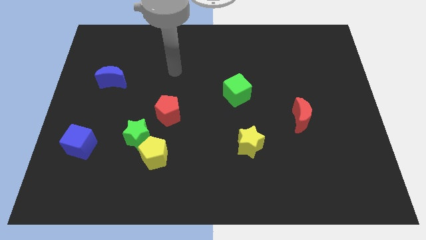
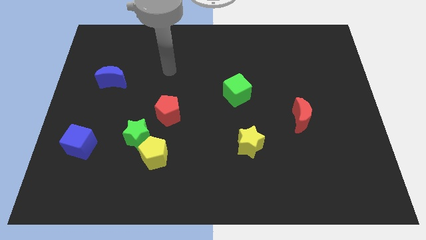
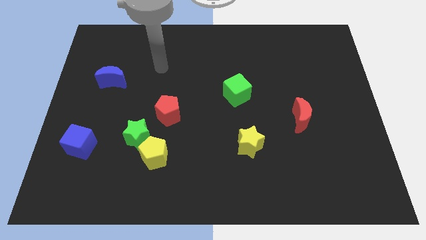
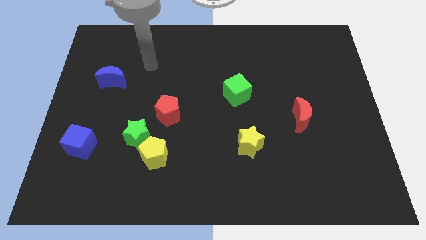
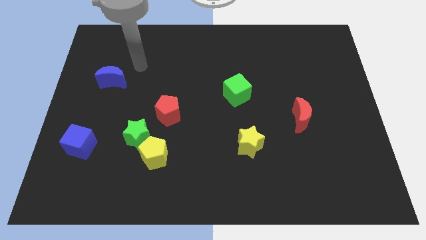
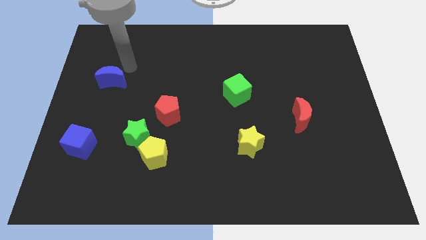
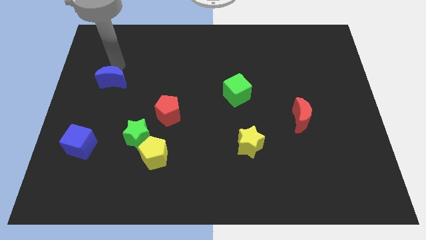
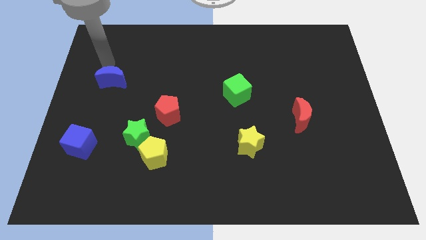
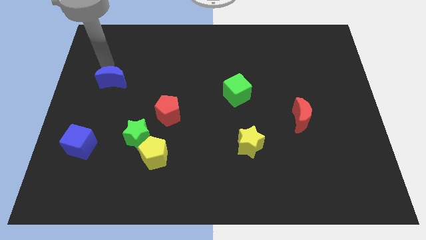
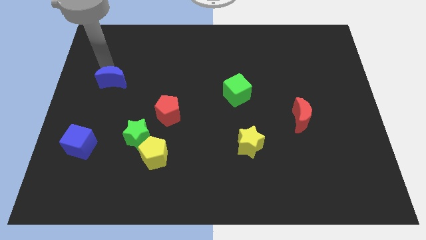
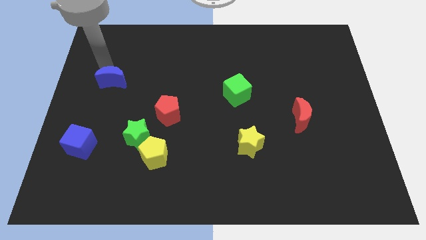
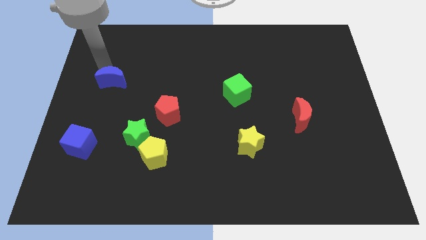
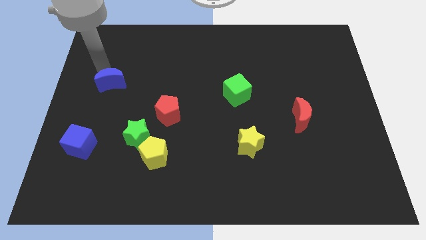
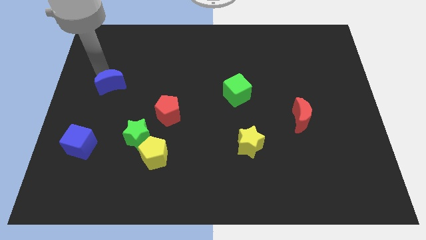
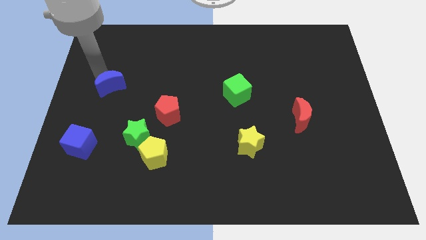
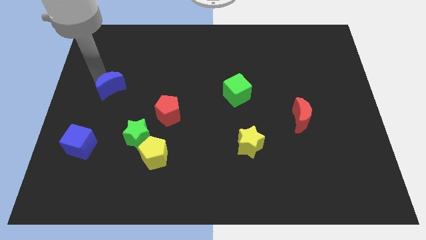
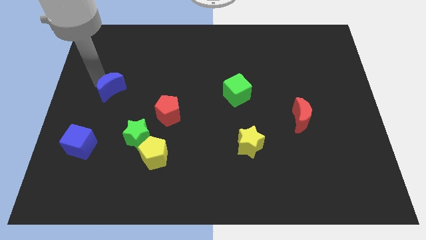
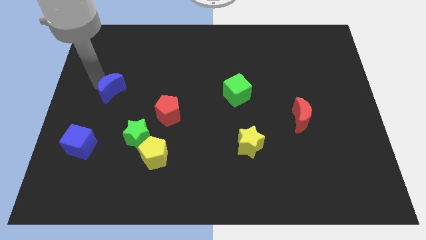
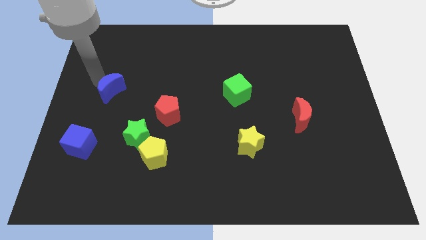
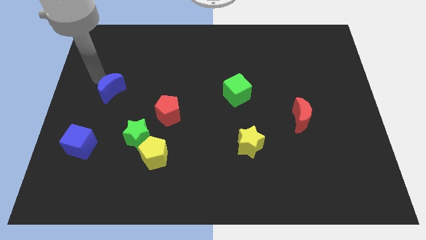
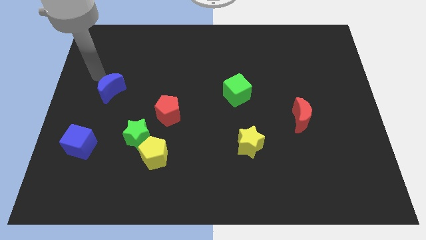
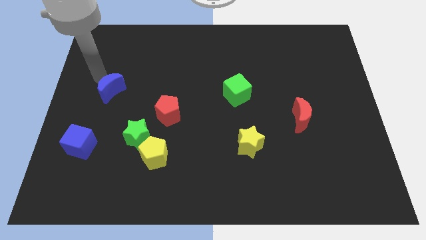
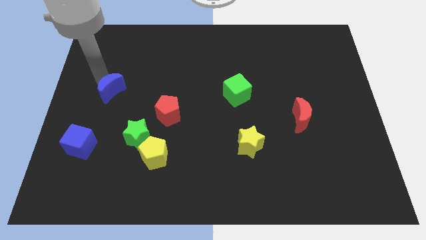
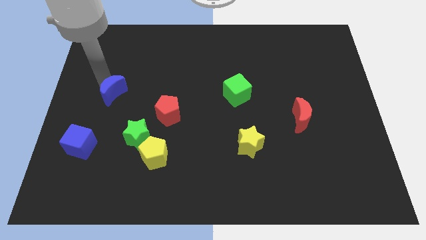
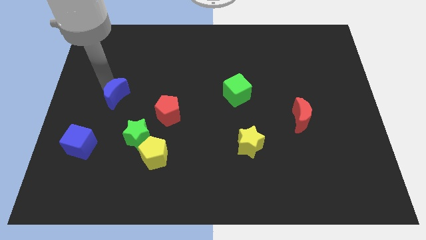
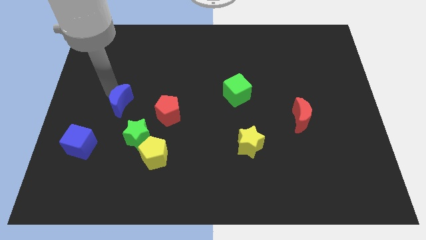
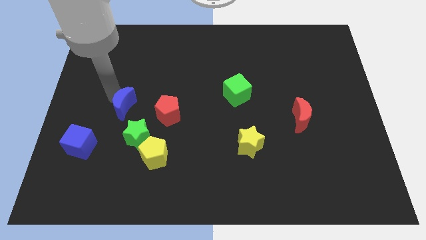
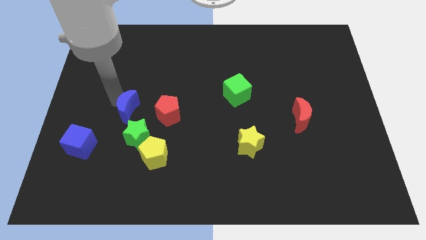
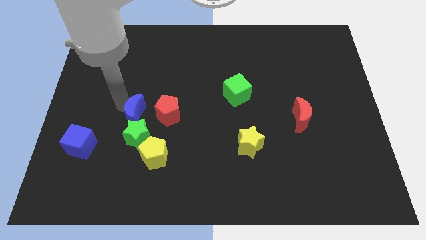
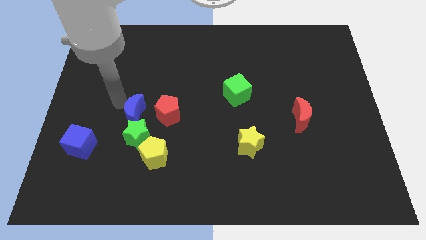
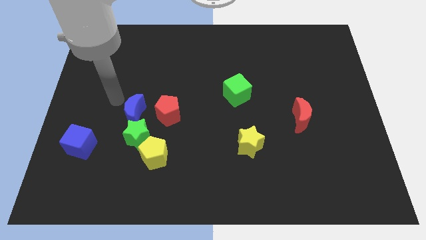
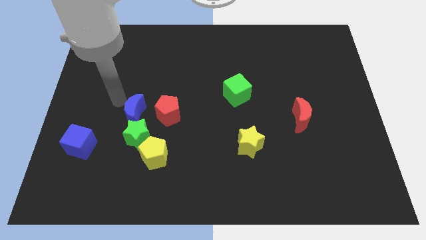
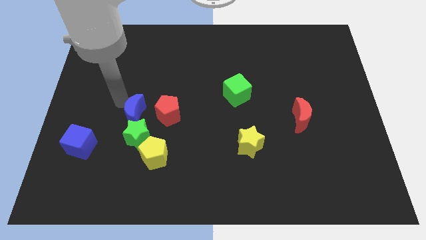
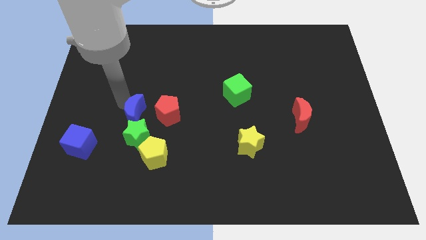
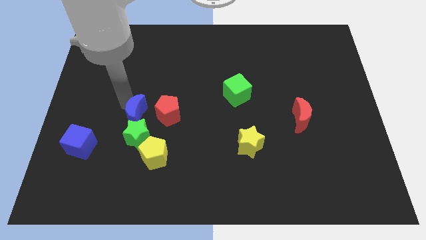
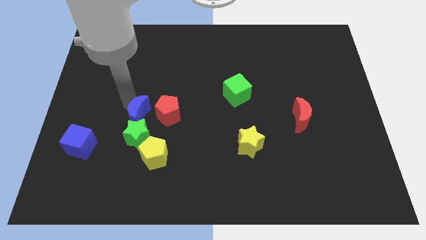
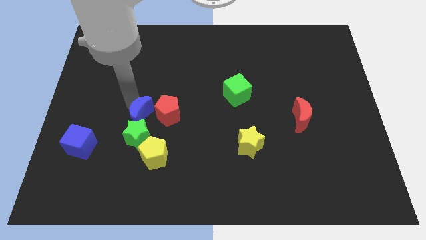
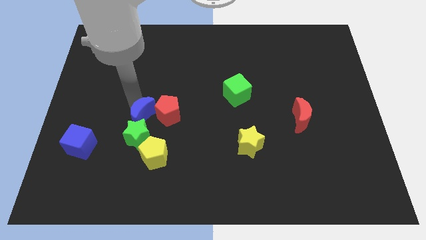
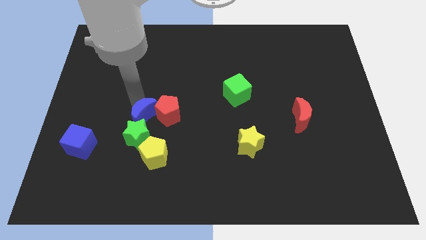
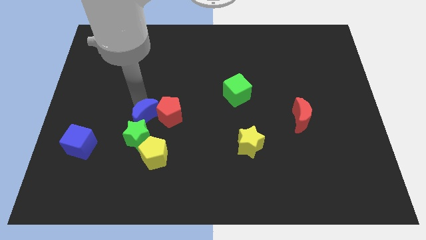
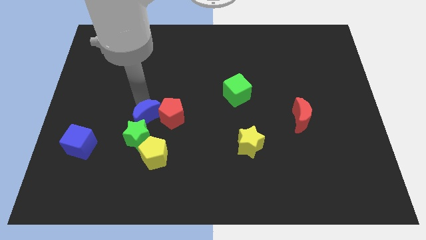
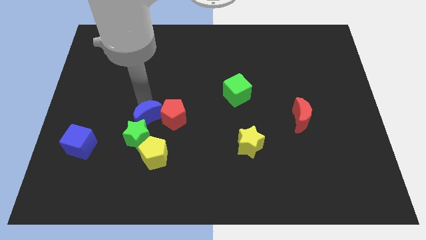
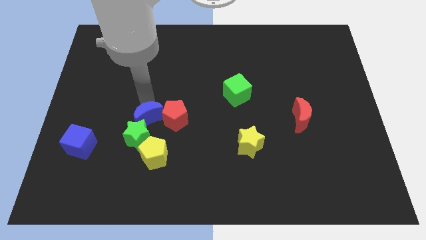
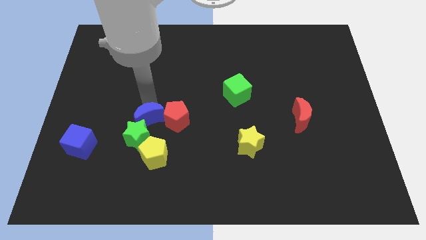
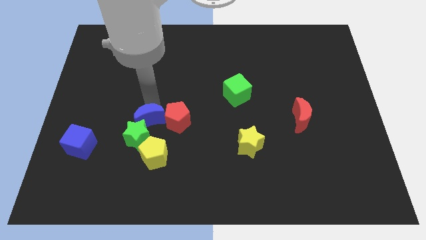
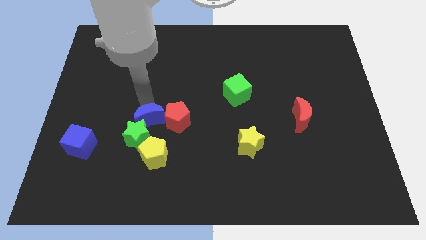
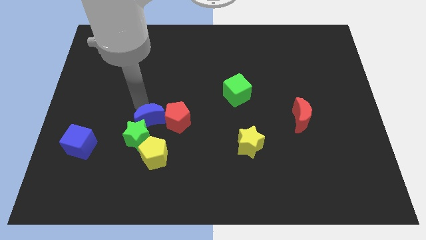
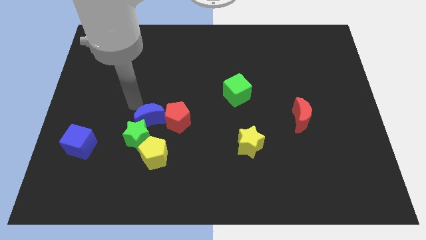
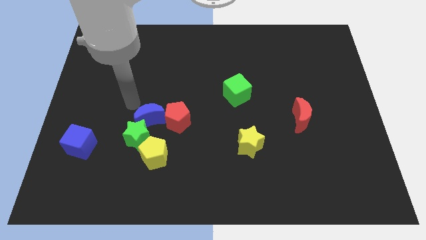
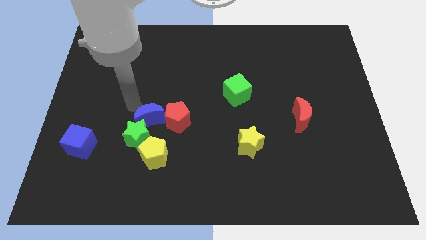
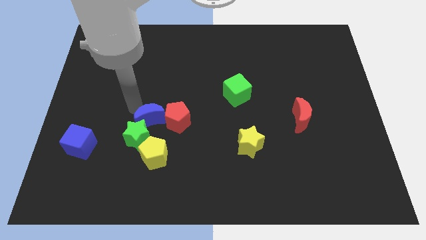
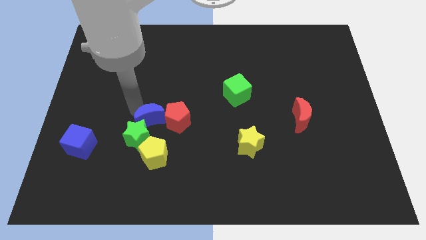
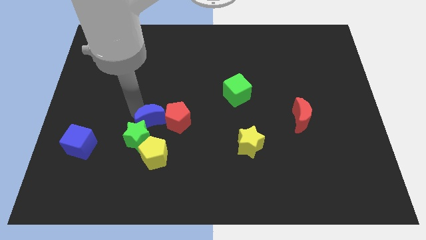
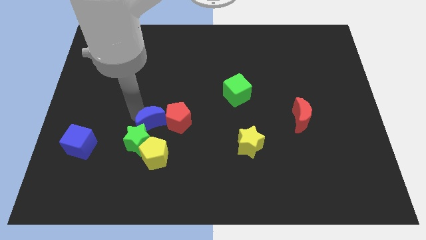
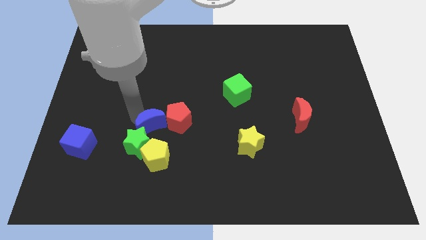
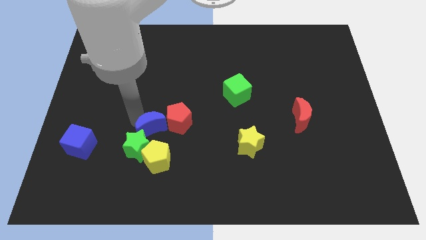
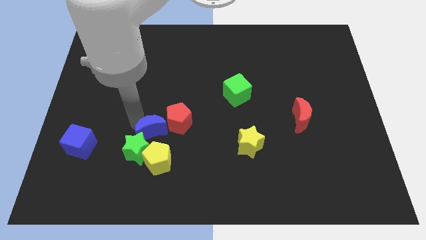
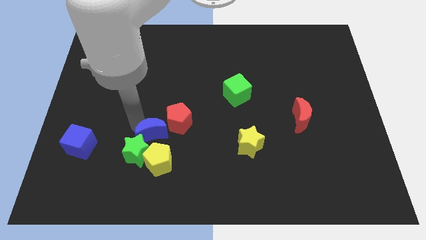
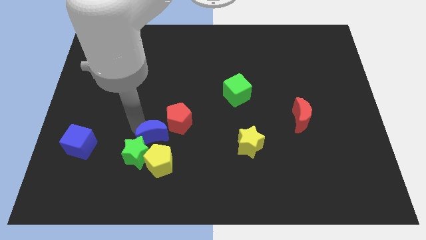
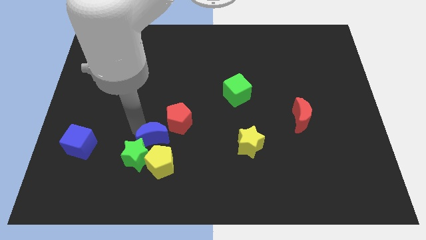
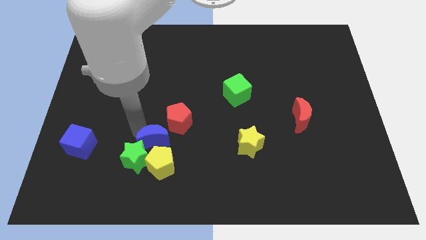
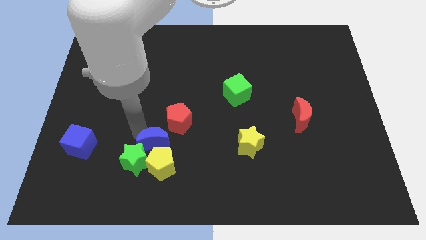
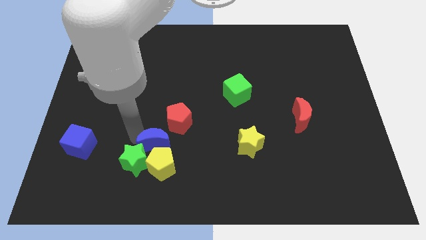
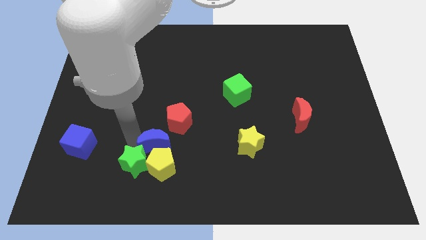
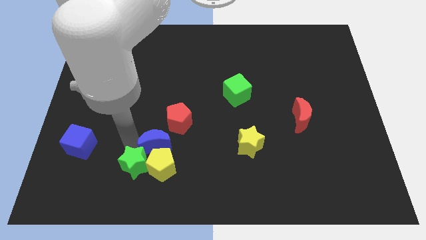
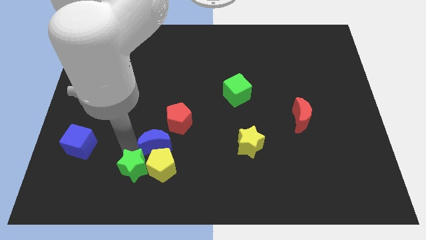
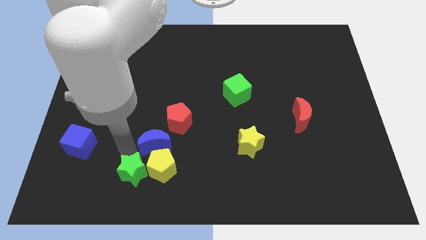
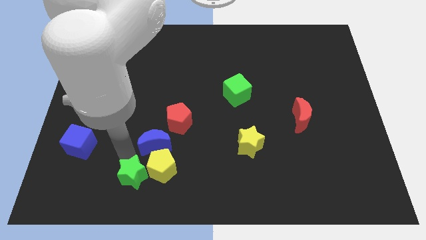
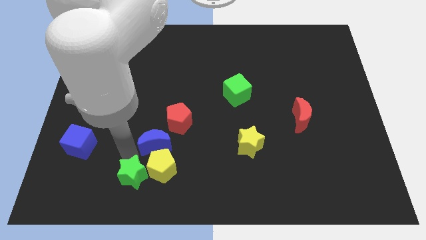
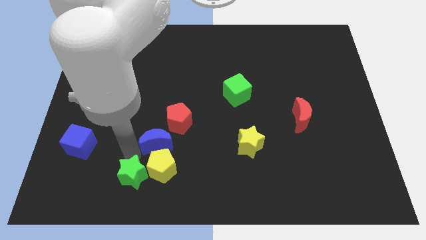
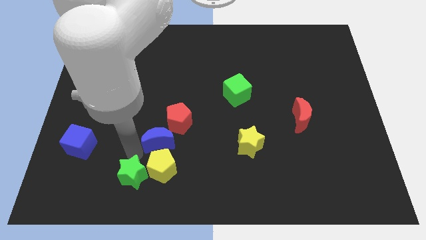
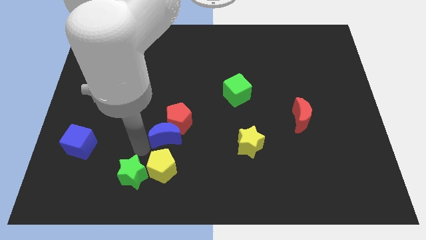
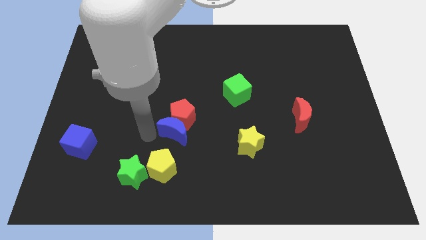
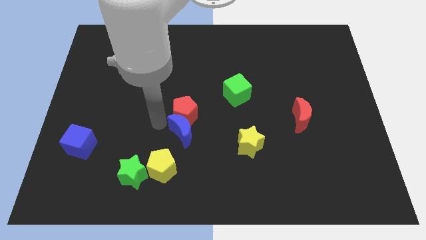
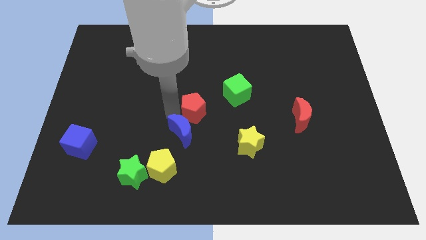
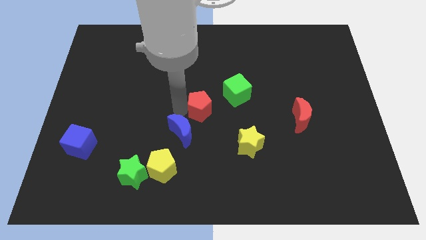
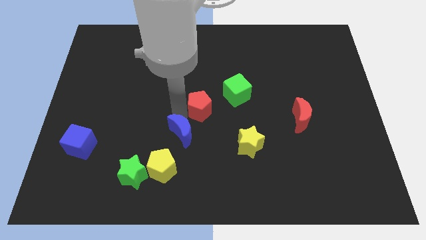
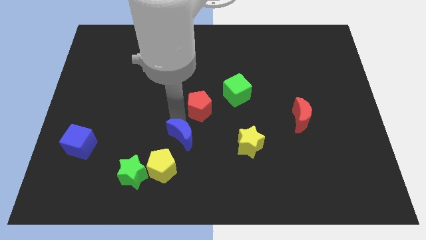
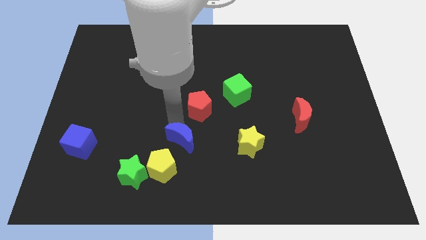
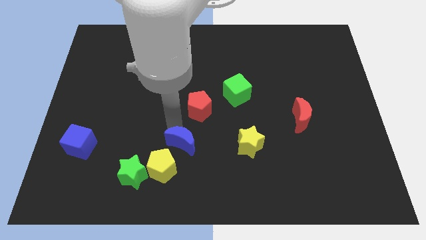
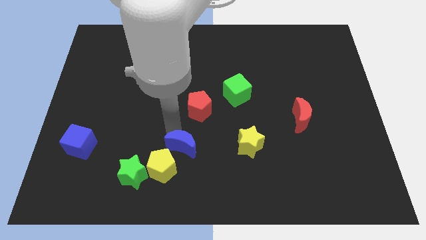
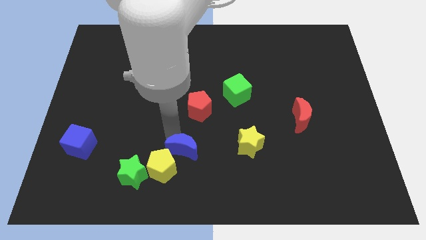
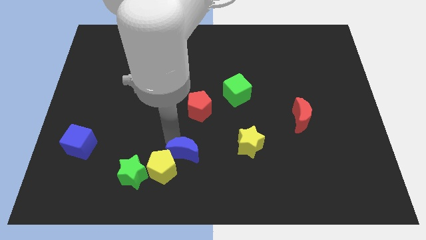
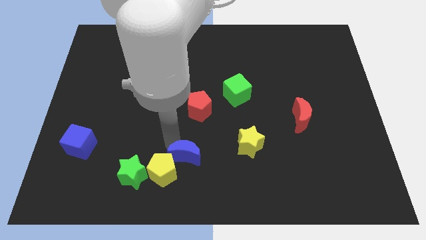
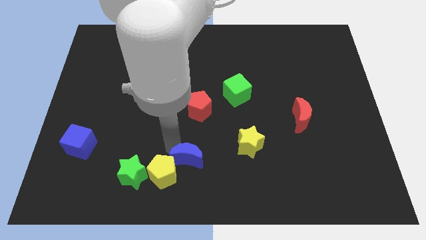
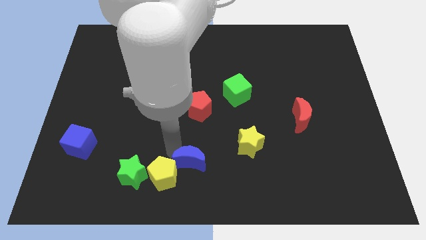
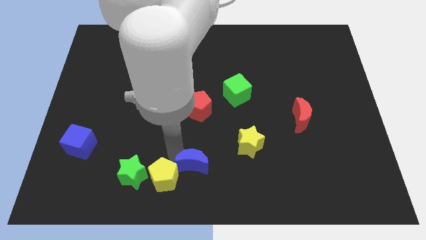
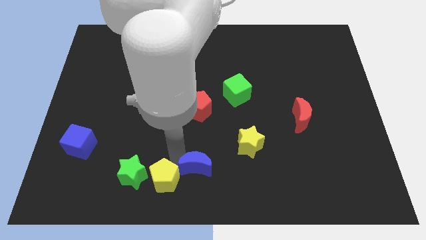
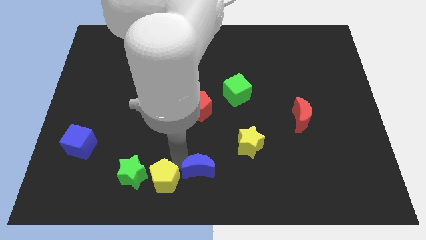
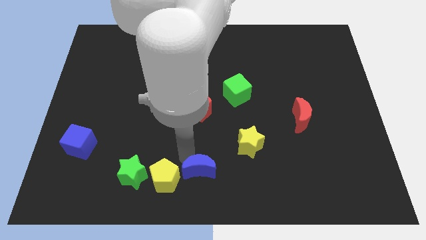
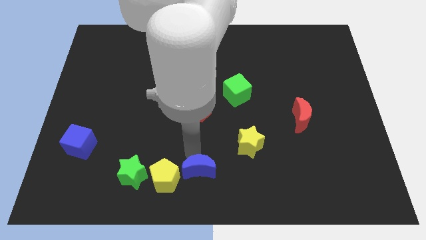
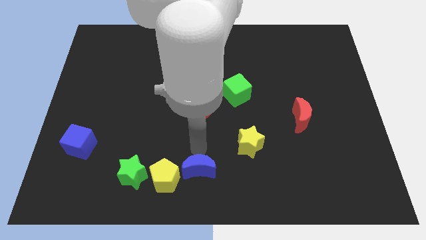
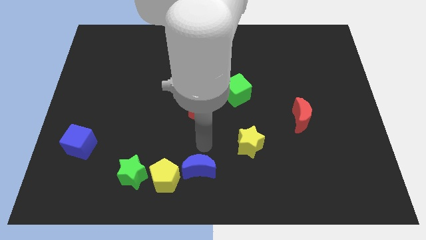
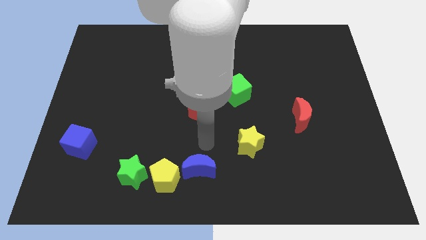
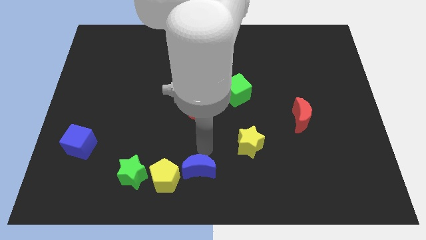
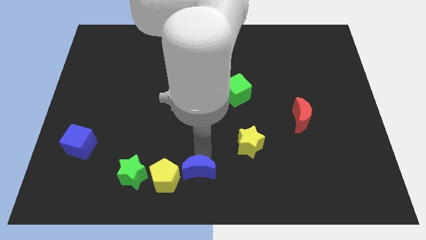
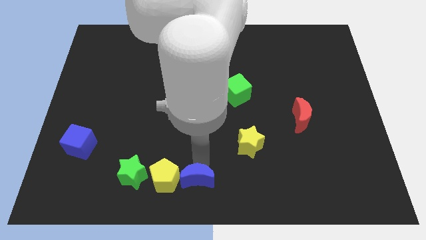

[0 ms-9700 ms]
slide the blue moon to the bottom right side of the yellow pentagon
